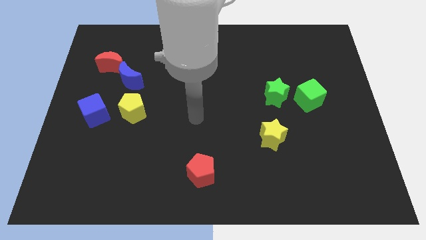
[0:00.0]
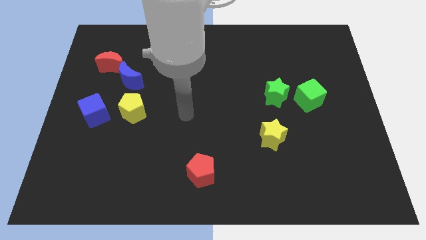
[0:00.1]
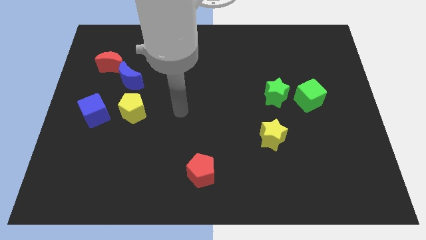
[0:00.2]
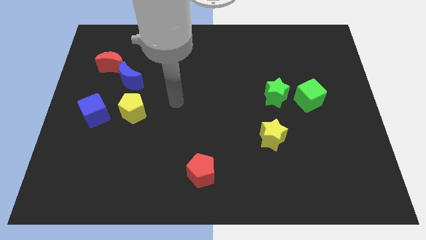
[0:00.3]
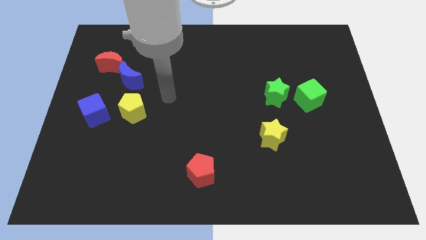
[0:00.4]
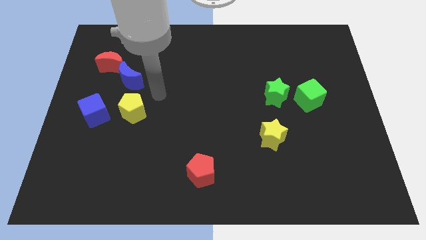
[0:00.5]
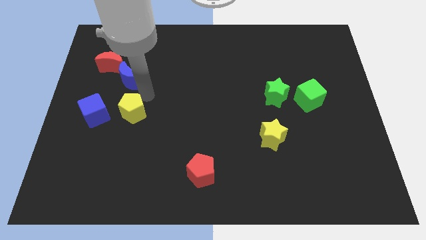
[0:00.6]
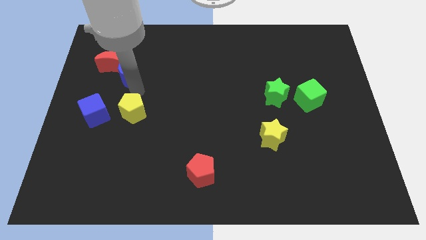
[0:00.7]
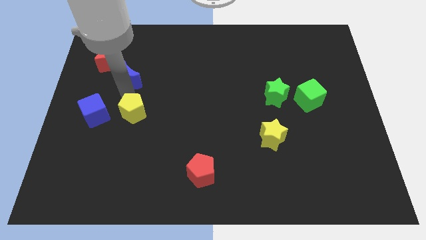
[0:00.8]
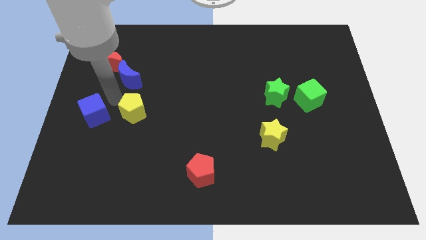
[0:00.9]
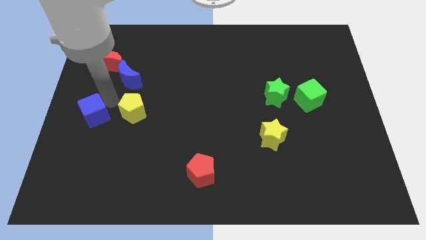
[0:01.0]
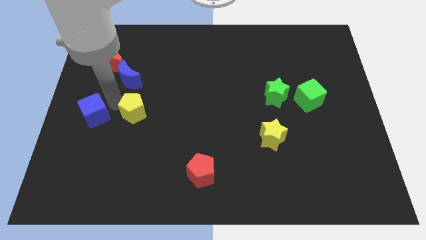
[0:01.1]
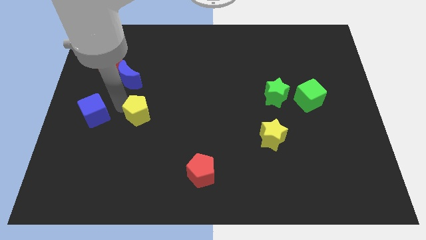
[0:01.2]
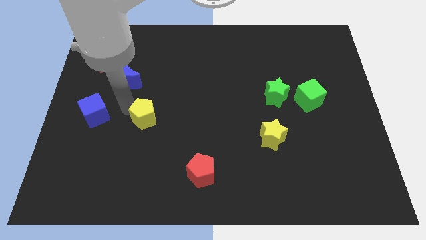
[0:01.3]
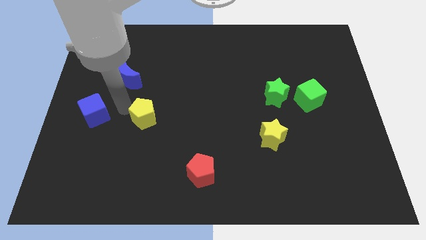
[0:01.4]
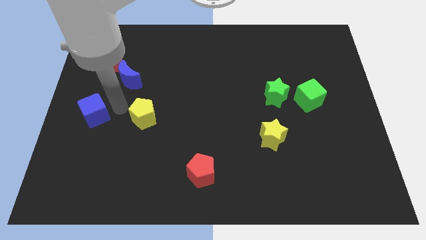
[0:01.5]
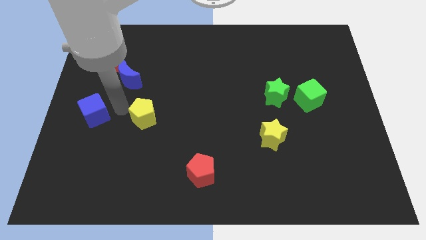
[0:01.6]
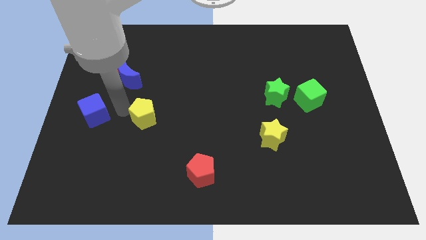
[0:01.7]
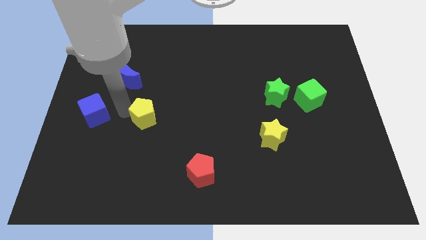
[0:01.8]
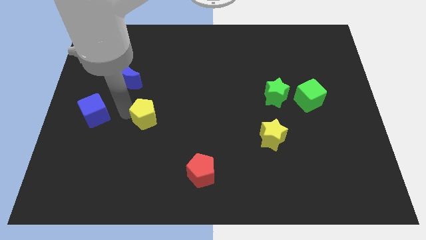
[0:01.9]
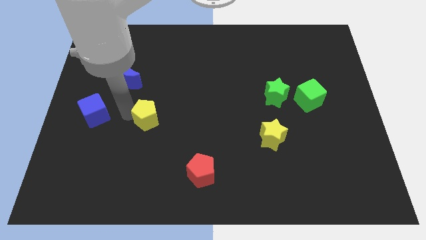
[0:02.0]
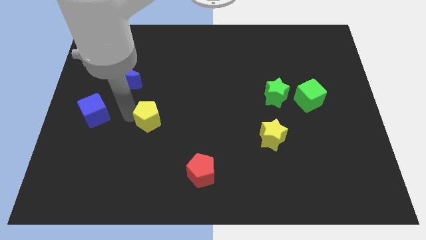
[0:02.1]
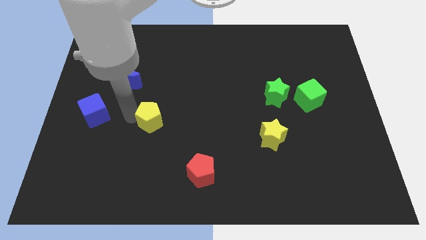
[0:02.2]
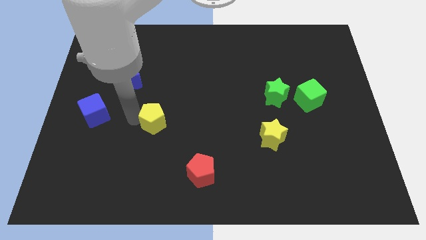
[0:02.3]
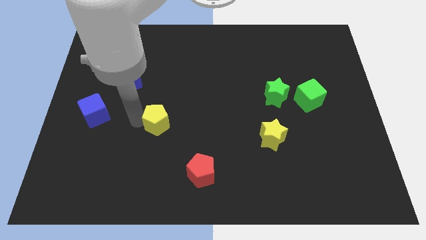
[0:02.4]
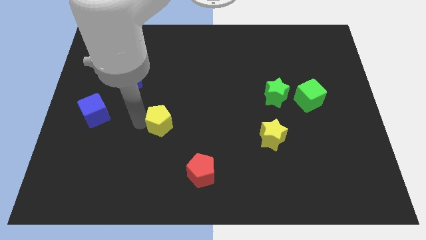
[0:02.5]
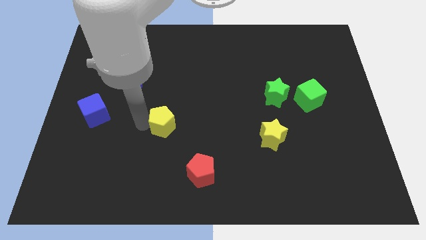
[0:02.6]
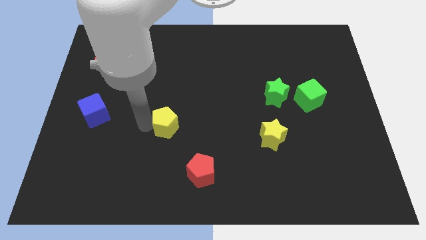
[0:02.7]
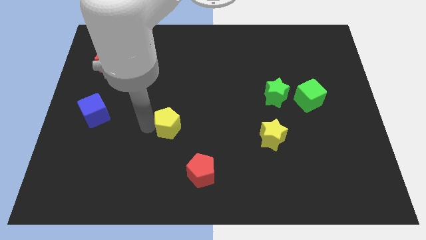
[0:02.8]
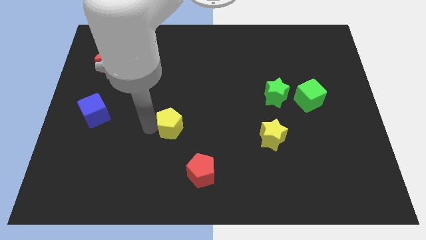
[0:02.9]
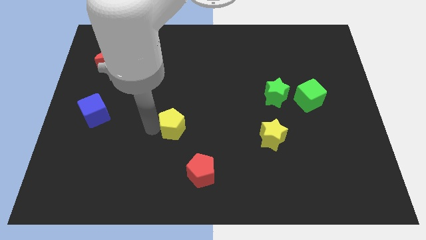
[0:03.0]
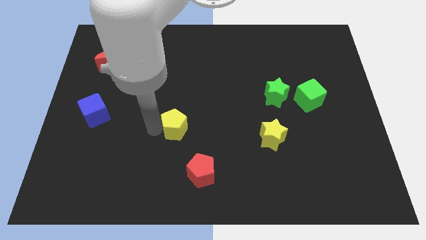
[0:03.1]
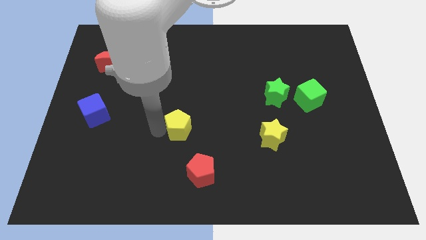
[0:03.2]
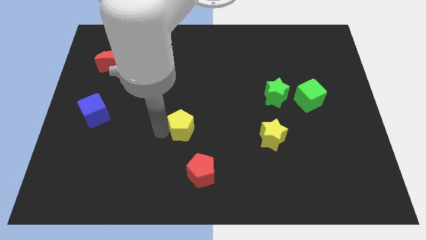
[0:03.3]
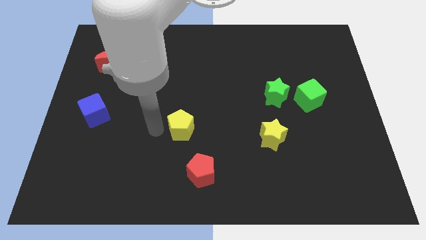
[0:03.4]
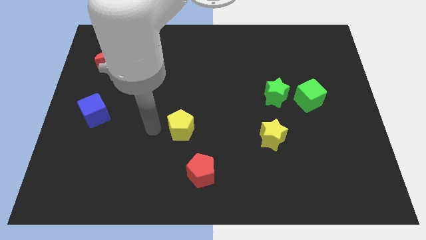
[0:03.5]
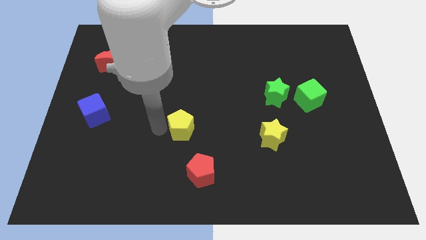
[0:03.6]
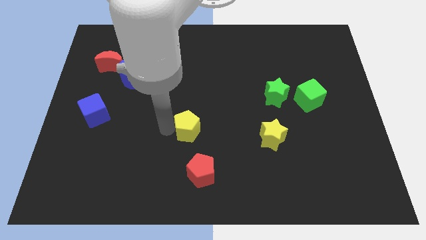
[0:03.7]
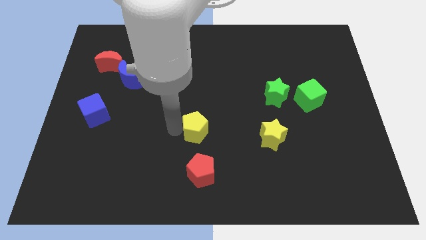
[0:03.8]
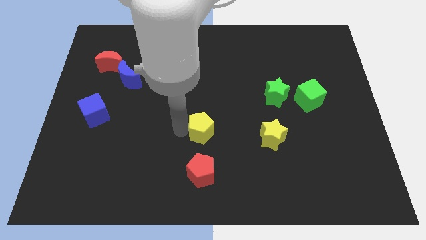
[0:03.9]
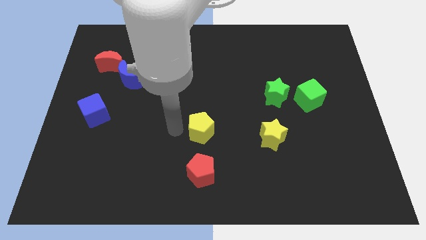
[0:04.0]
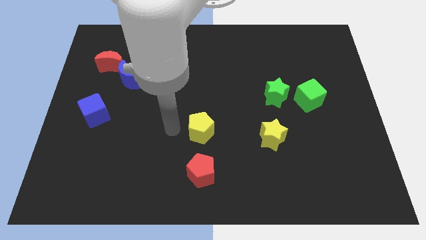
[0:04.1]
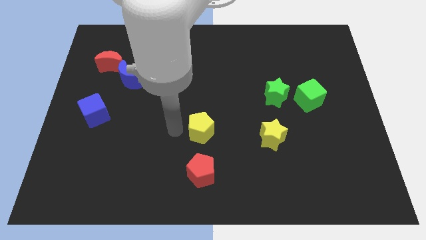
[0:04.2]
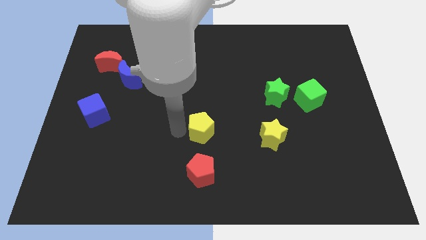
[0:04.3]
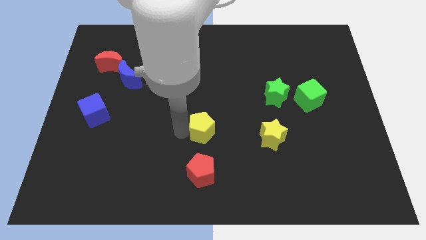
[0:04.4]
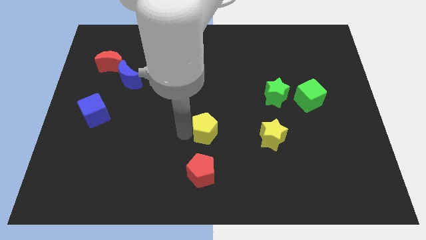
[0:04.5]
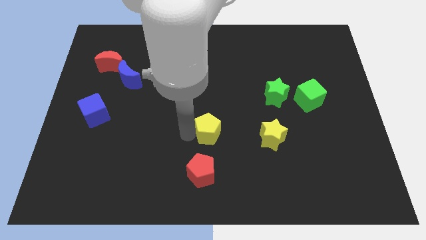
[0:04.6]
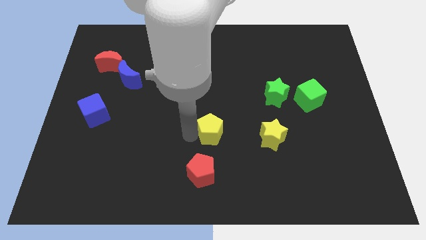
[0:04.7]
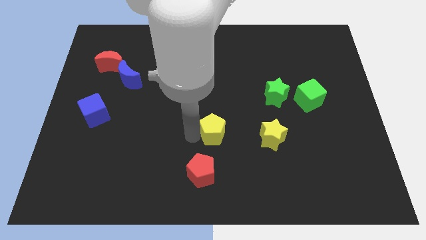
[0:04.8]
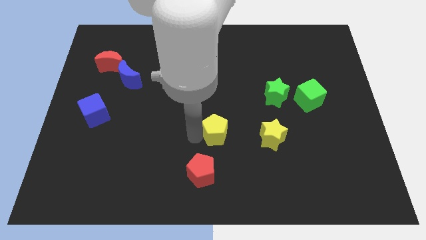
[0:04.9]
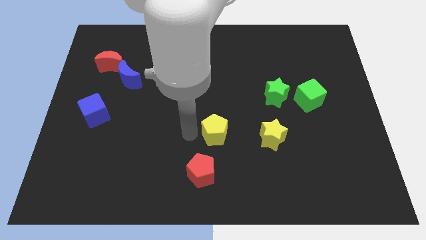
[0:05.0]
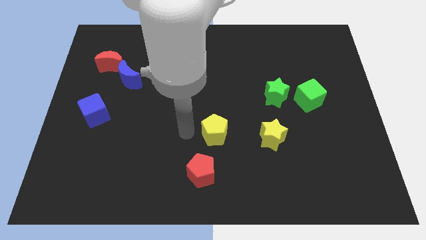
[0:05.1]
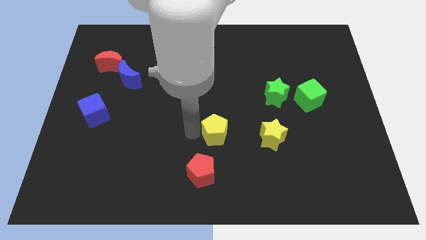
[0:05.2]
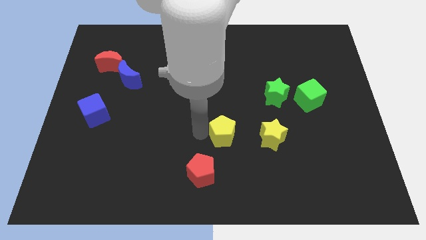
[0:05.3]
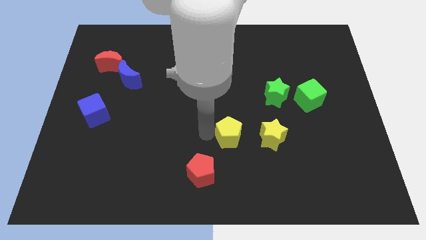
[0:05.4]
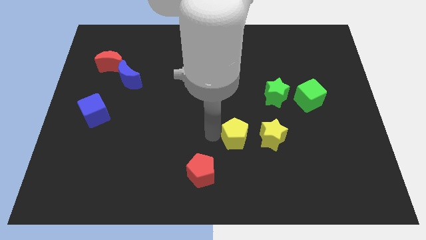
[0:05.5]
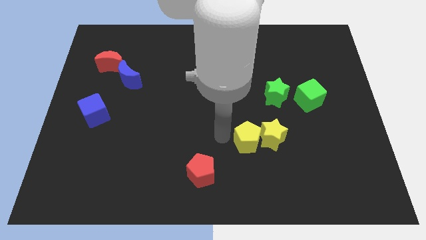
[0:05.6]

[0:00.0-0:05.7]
put the yellow pentagon to the yellow star

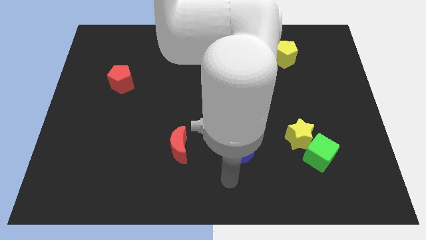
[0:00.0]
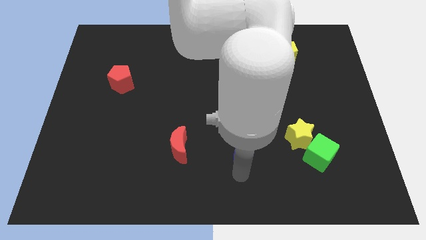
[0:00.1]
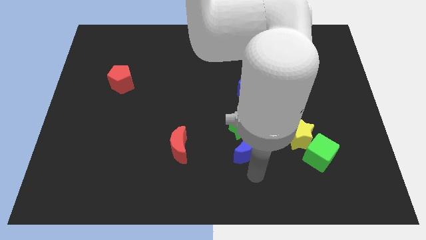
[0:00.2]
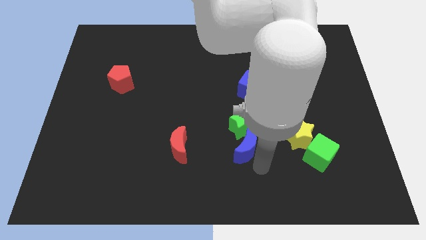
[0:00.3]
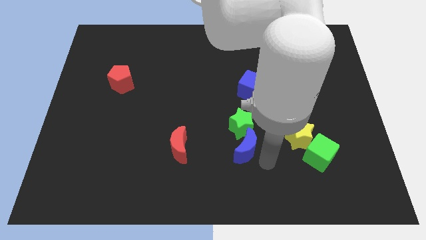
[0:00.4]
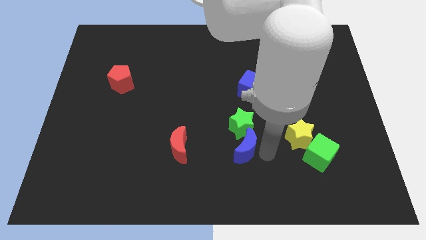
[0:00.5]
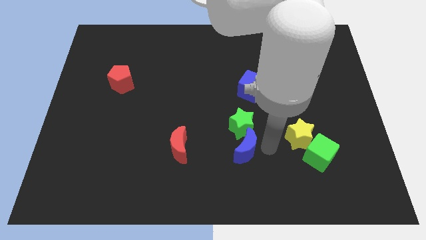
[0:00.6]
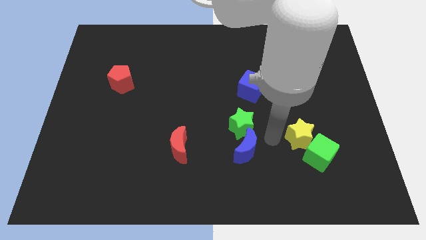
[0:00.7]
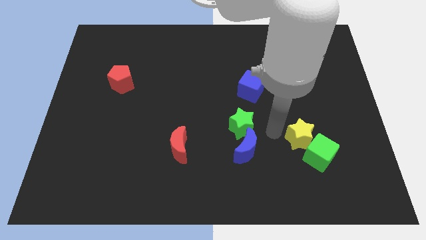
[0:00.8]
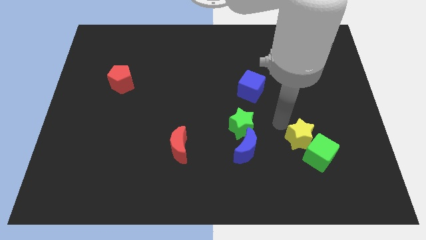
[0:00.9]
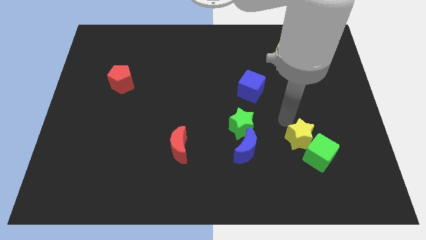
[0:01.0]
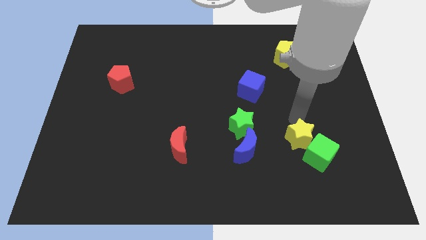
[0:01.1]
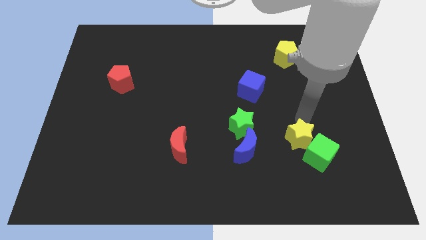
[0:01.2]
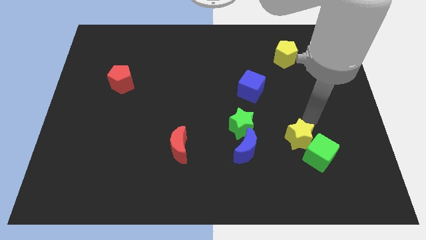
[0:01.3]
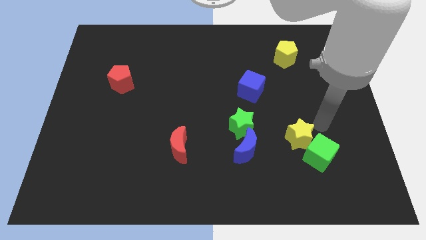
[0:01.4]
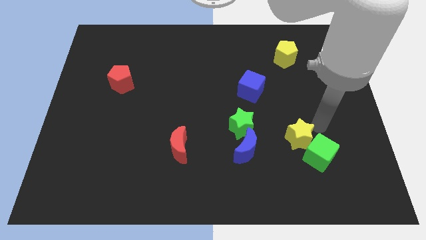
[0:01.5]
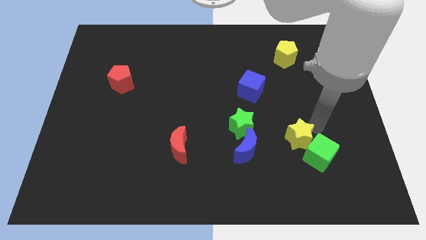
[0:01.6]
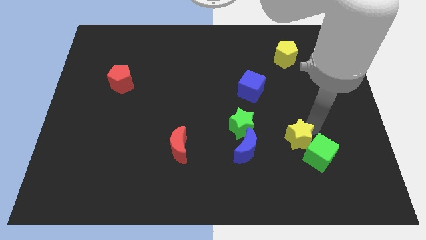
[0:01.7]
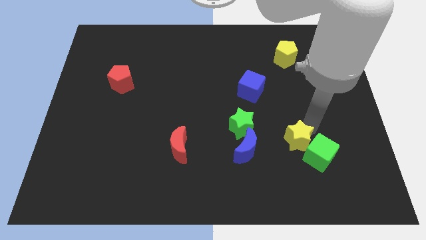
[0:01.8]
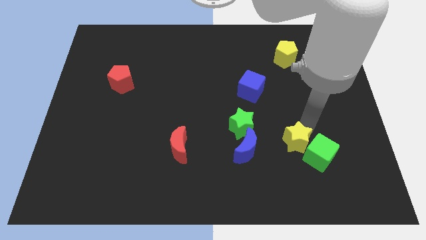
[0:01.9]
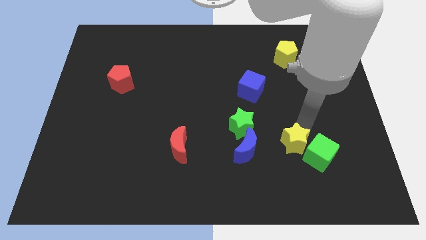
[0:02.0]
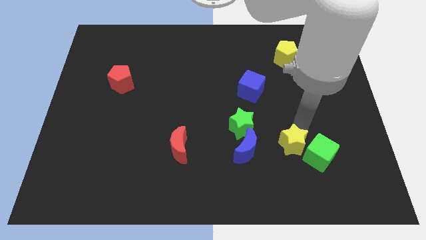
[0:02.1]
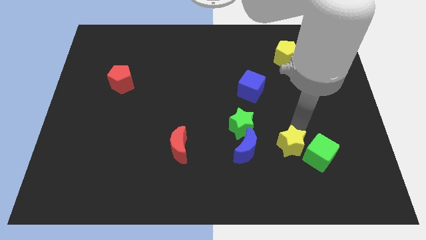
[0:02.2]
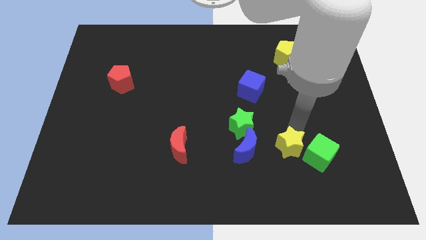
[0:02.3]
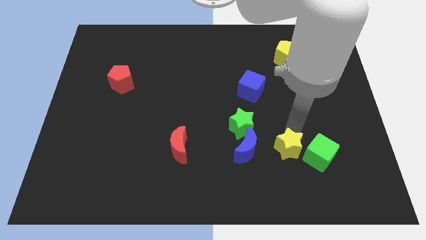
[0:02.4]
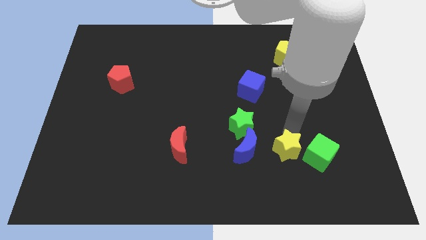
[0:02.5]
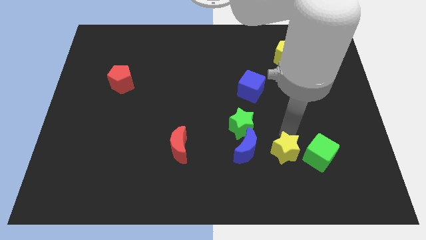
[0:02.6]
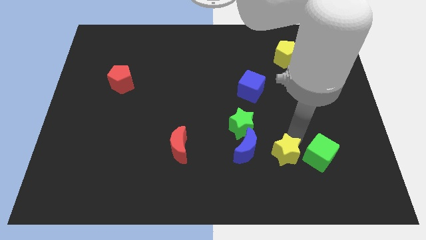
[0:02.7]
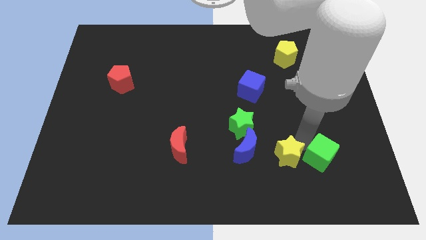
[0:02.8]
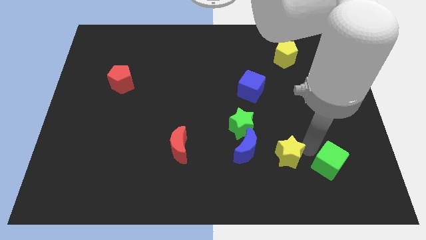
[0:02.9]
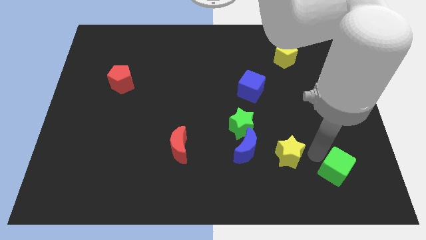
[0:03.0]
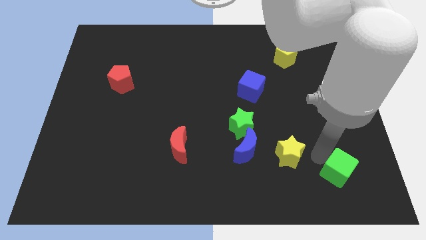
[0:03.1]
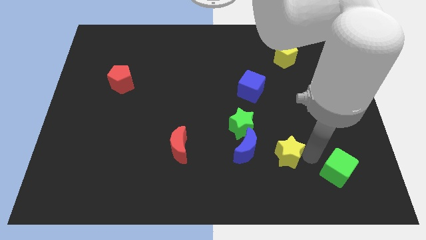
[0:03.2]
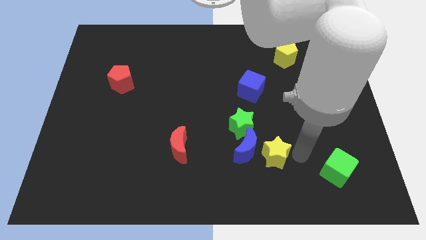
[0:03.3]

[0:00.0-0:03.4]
move the yellow star close to the blue moon
